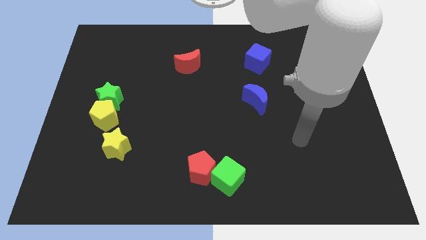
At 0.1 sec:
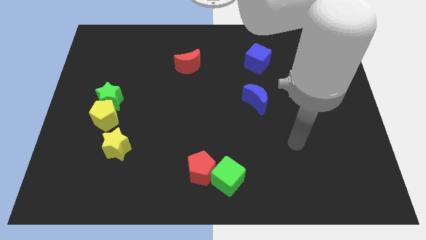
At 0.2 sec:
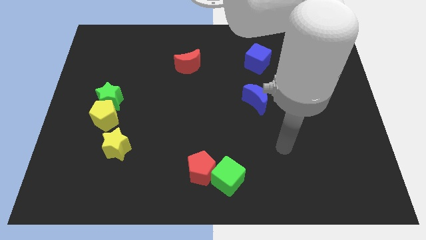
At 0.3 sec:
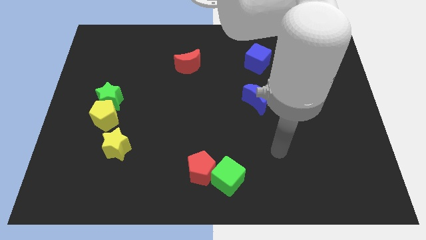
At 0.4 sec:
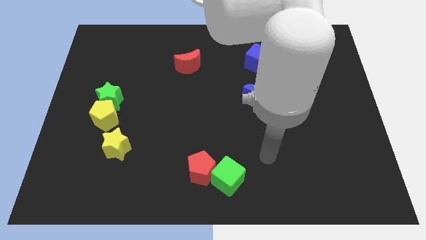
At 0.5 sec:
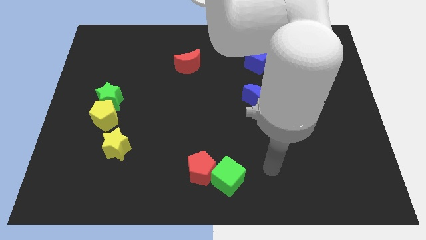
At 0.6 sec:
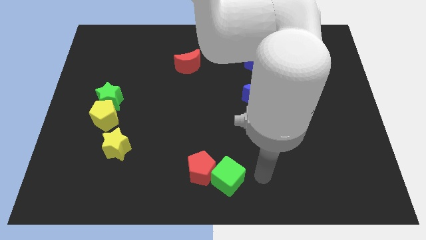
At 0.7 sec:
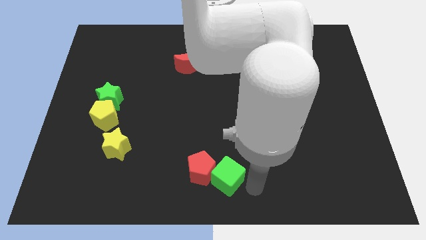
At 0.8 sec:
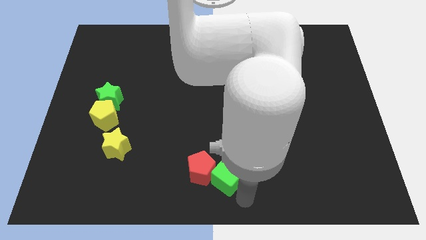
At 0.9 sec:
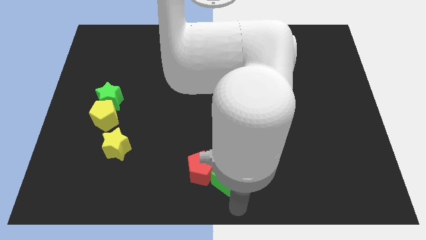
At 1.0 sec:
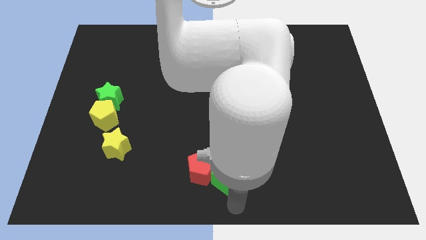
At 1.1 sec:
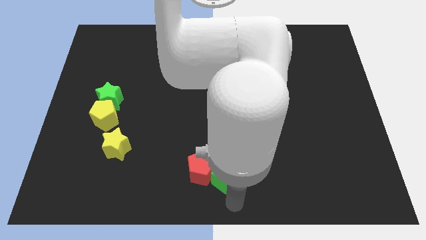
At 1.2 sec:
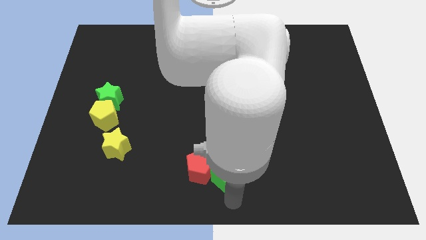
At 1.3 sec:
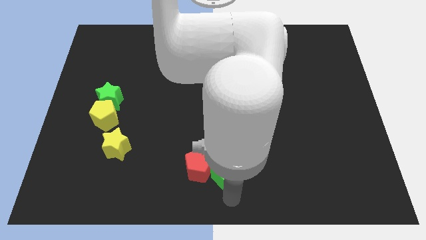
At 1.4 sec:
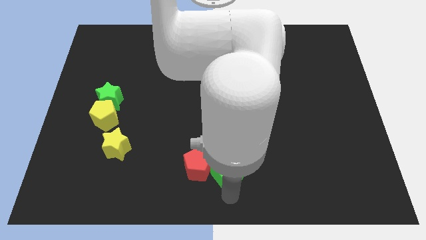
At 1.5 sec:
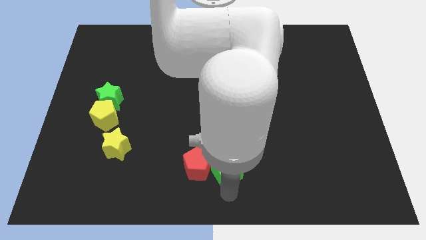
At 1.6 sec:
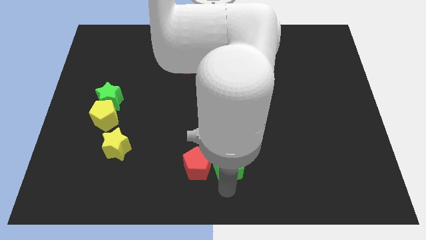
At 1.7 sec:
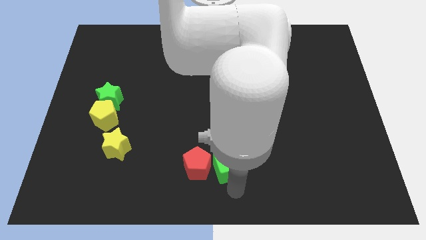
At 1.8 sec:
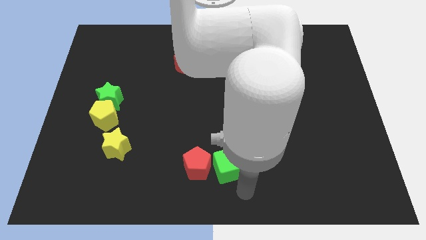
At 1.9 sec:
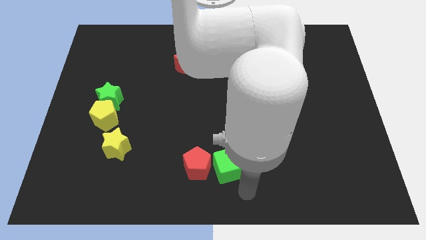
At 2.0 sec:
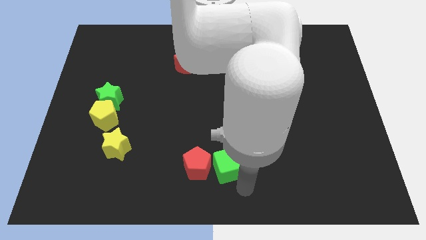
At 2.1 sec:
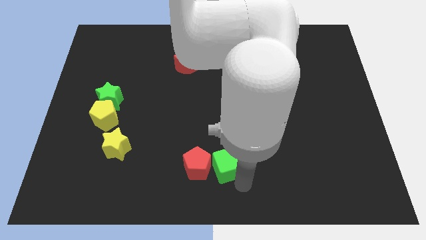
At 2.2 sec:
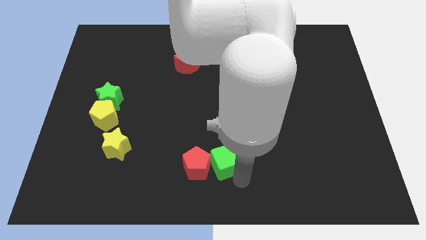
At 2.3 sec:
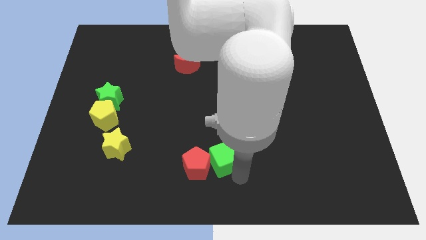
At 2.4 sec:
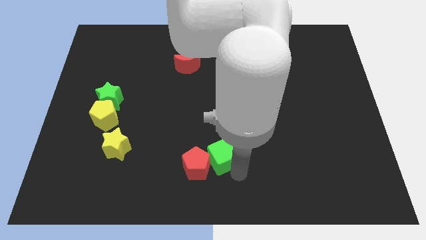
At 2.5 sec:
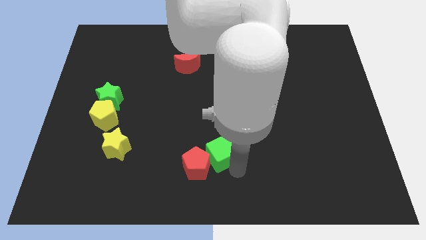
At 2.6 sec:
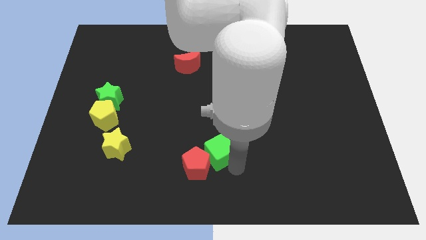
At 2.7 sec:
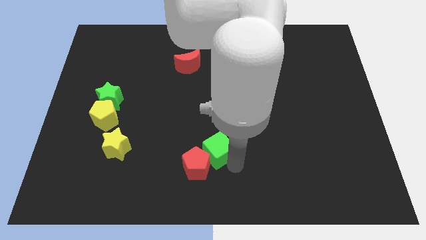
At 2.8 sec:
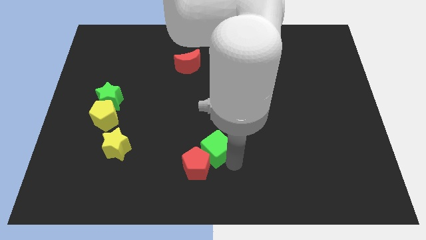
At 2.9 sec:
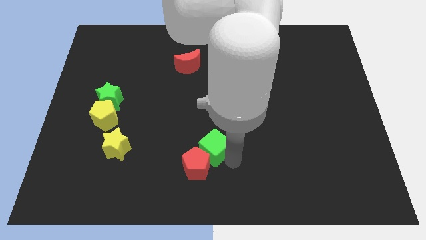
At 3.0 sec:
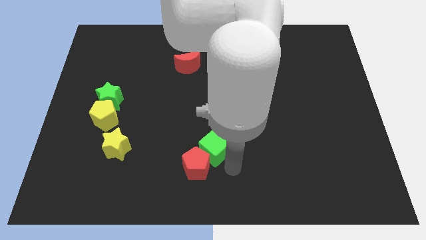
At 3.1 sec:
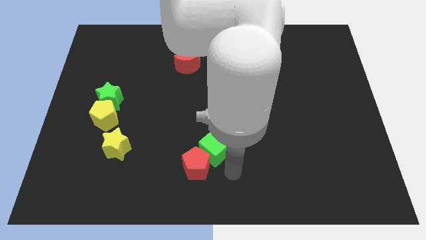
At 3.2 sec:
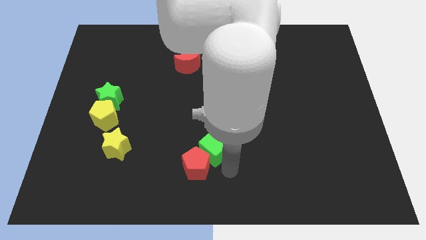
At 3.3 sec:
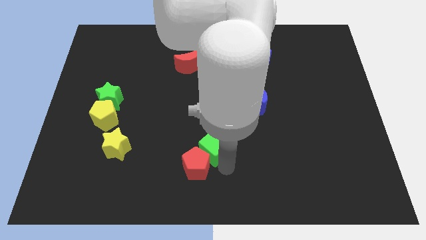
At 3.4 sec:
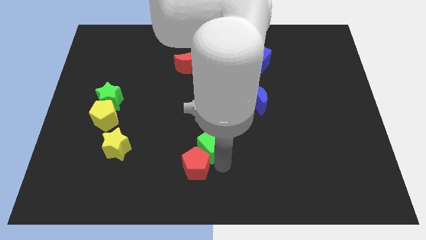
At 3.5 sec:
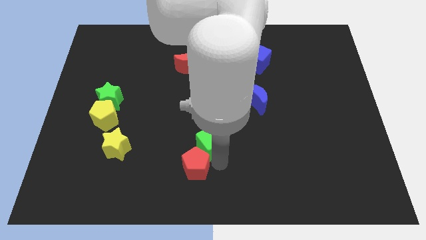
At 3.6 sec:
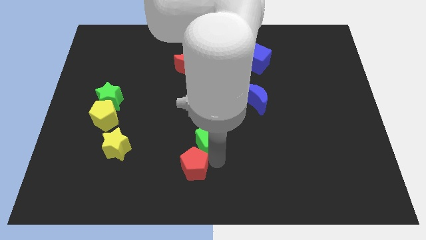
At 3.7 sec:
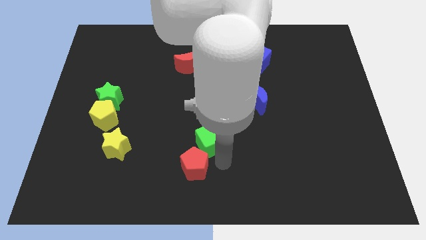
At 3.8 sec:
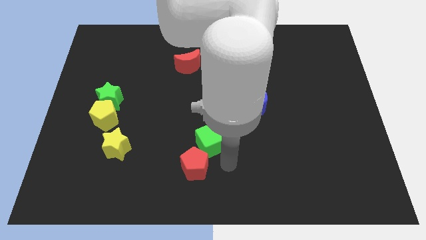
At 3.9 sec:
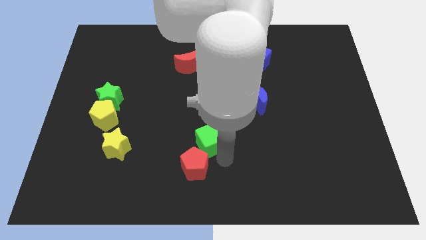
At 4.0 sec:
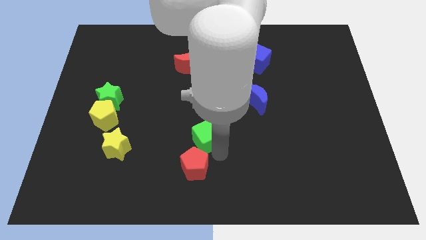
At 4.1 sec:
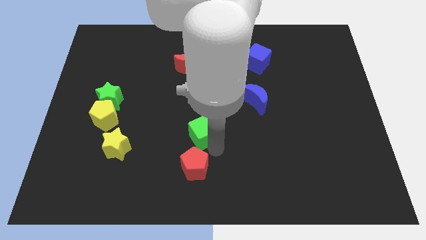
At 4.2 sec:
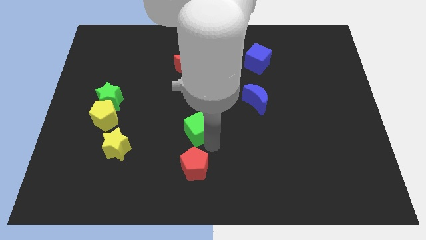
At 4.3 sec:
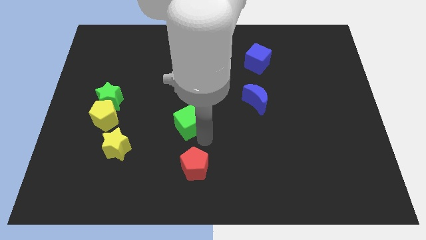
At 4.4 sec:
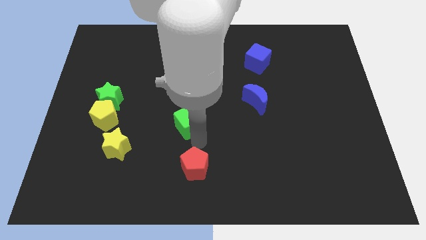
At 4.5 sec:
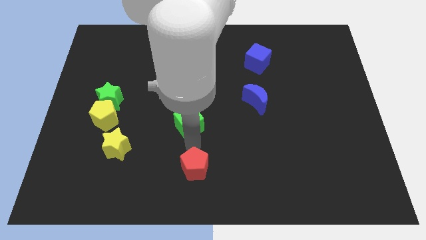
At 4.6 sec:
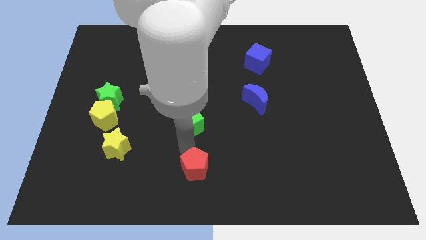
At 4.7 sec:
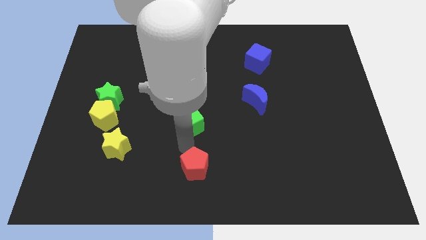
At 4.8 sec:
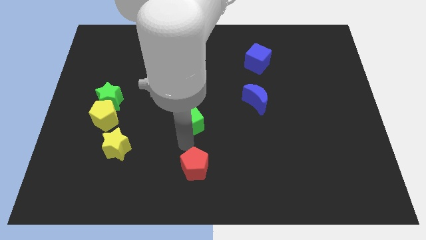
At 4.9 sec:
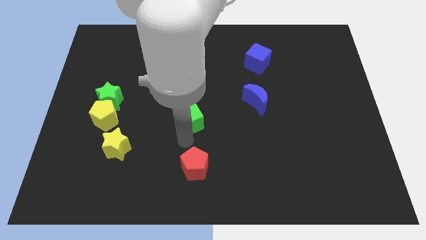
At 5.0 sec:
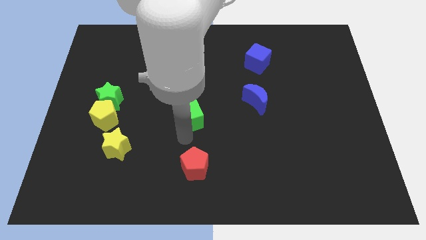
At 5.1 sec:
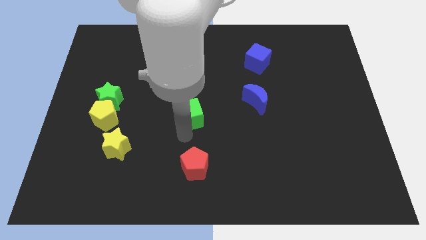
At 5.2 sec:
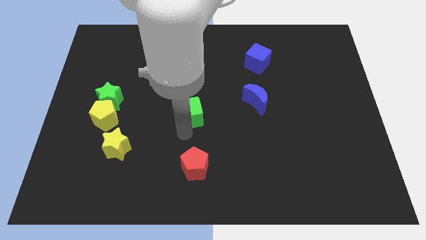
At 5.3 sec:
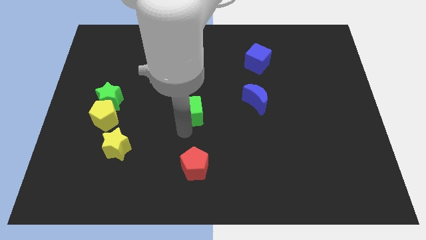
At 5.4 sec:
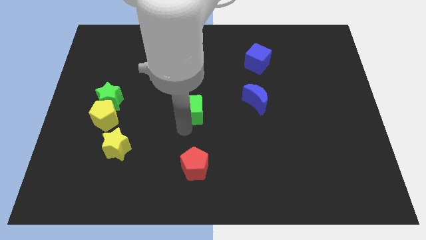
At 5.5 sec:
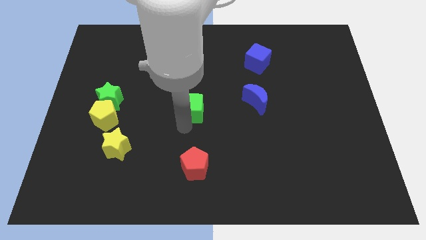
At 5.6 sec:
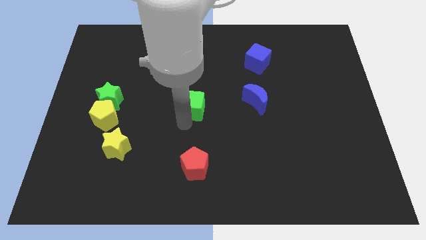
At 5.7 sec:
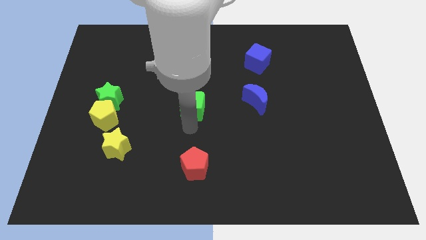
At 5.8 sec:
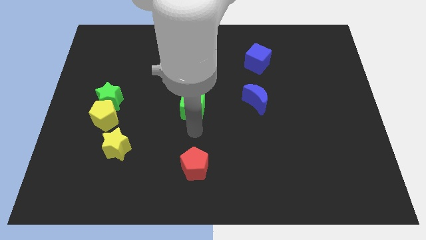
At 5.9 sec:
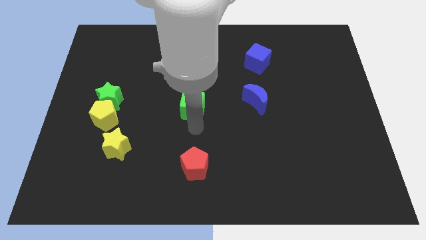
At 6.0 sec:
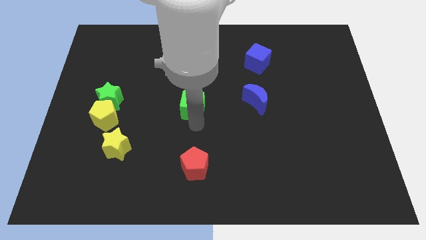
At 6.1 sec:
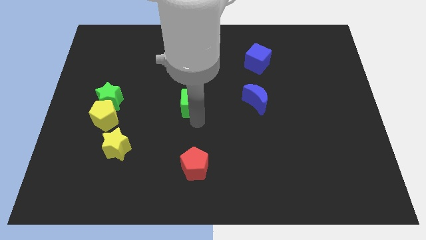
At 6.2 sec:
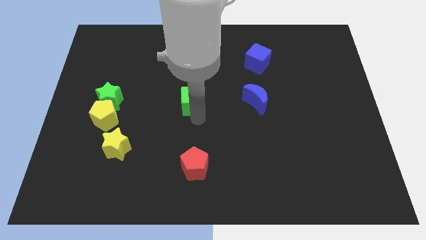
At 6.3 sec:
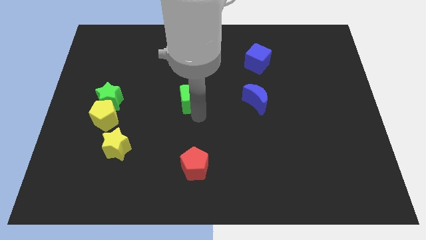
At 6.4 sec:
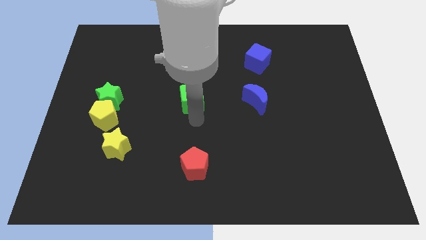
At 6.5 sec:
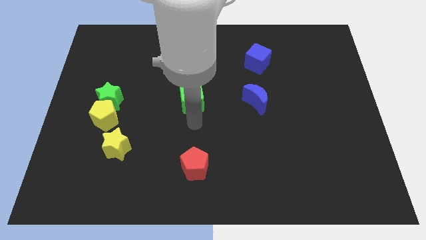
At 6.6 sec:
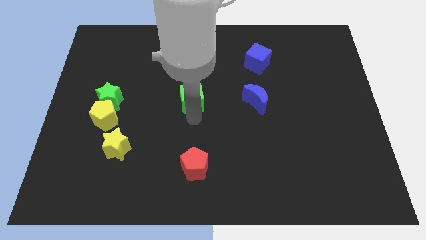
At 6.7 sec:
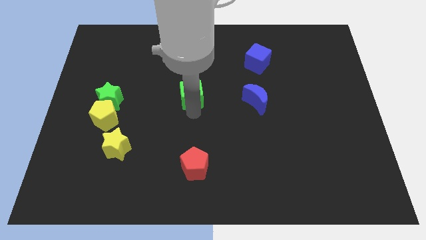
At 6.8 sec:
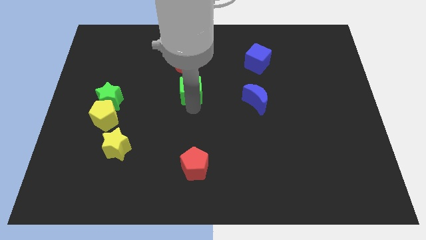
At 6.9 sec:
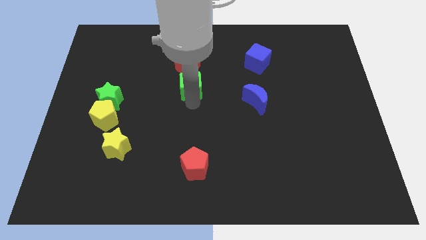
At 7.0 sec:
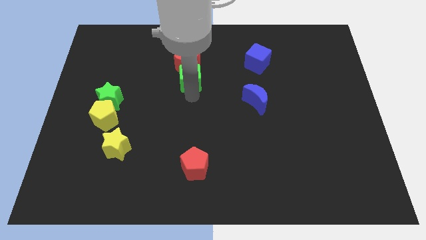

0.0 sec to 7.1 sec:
put the green cube close to the red moon
